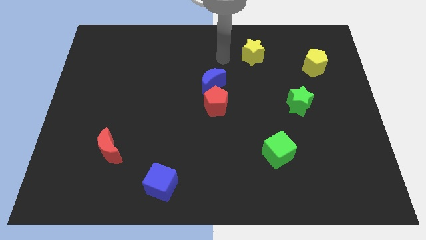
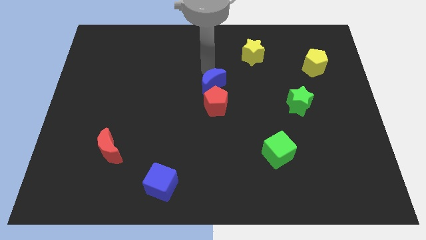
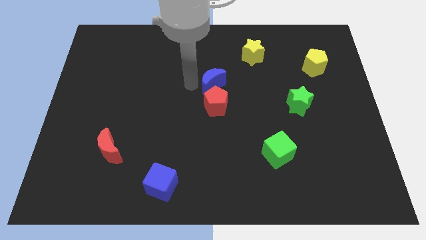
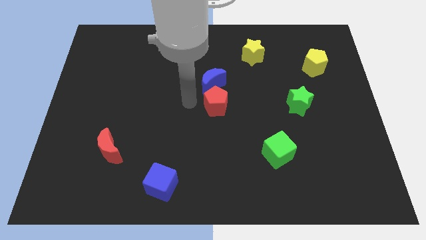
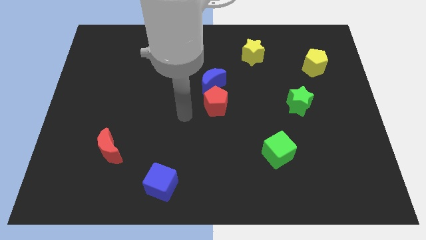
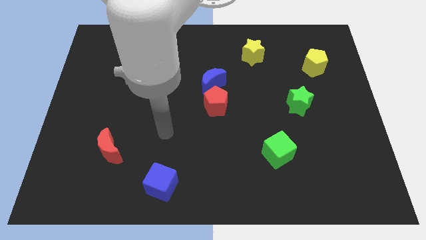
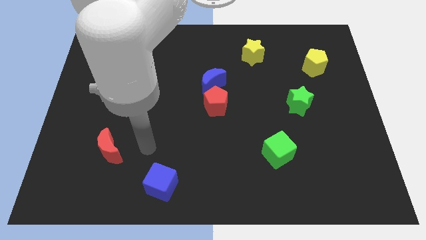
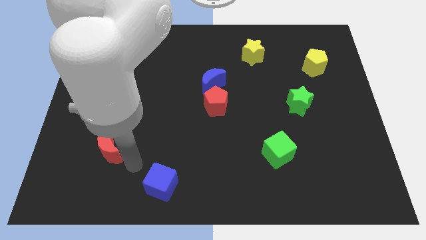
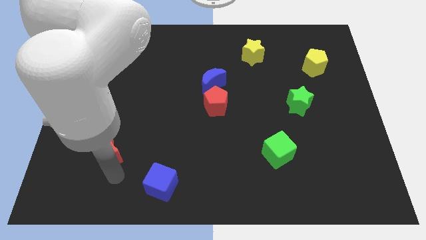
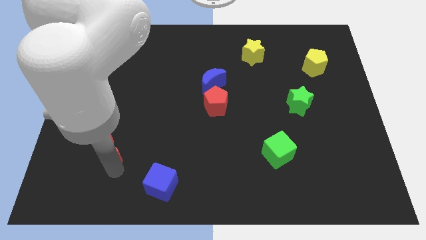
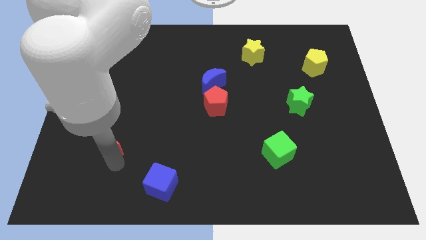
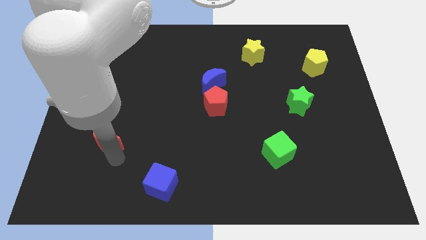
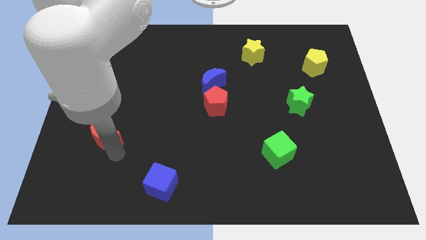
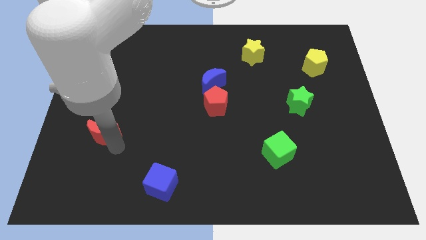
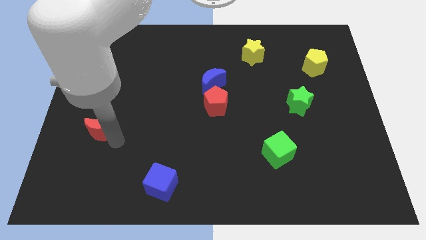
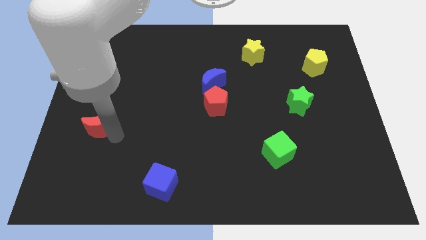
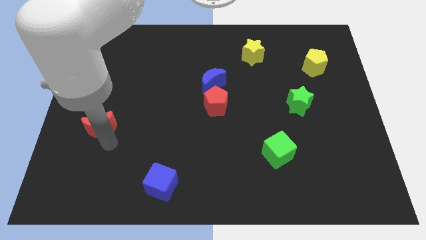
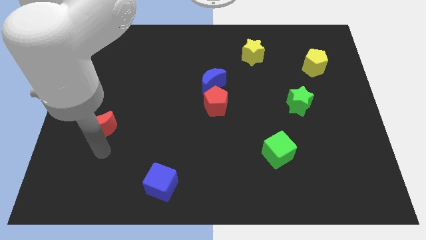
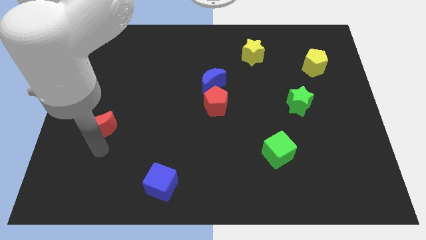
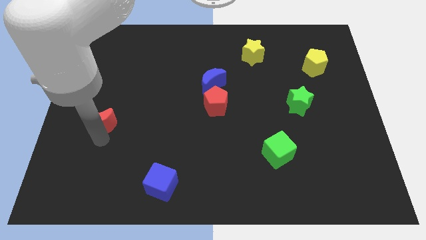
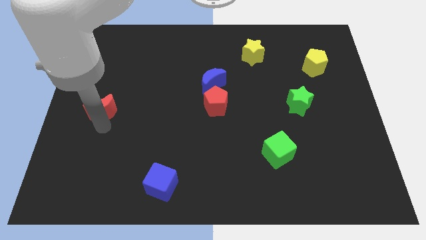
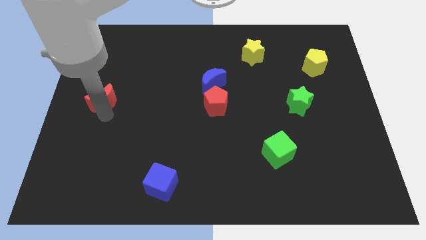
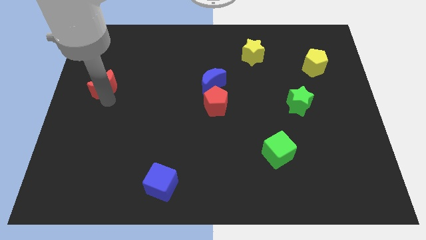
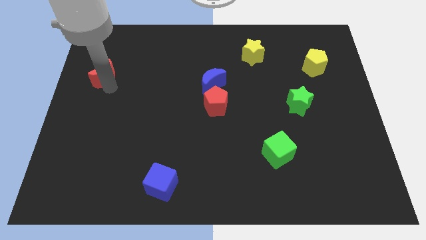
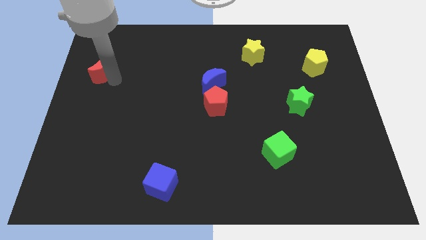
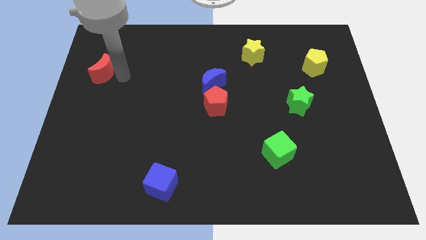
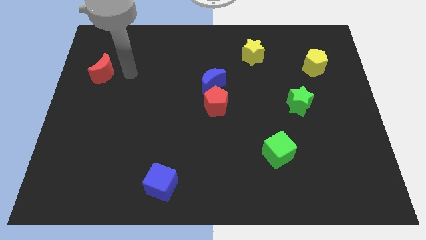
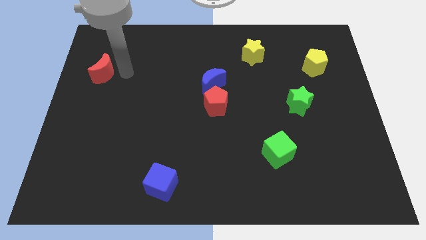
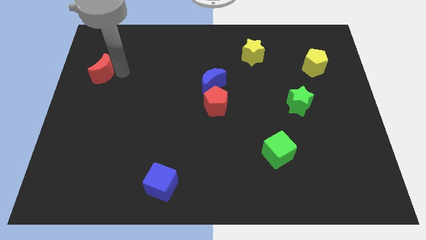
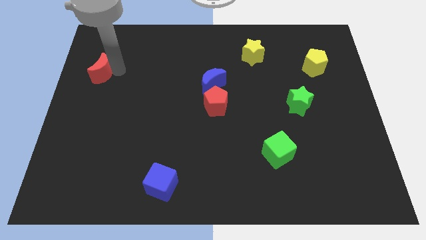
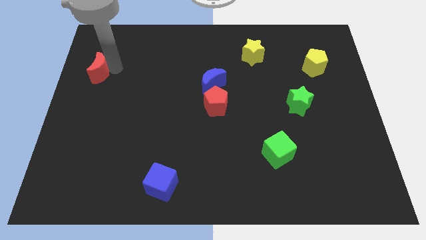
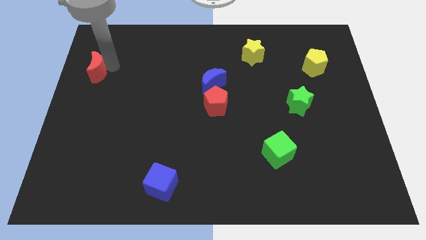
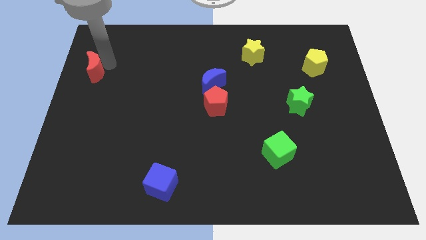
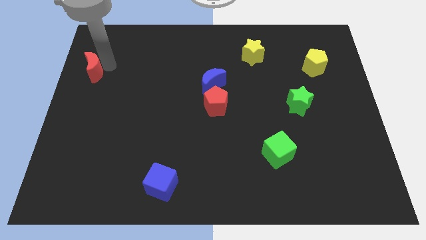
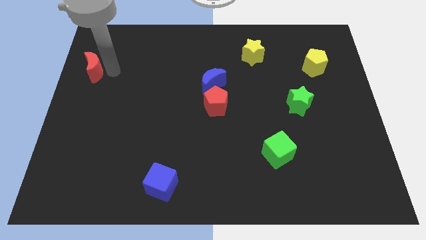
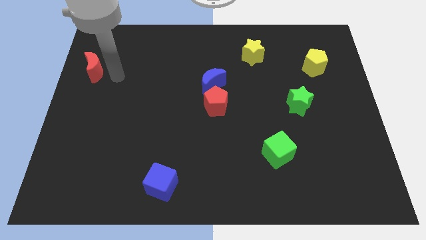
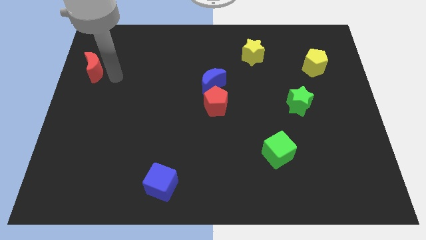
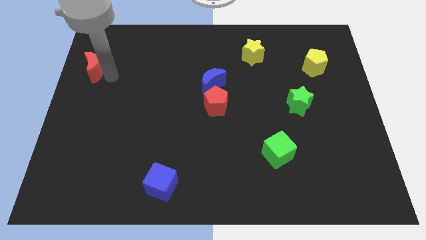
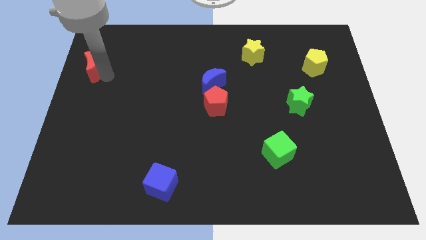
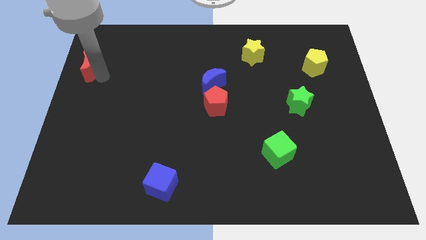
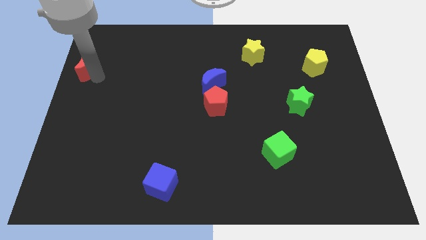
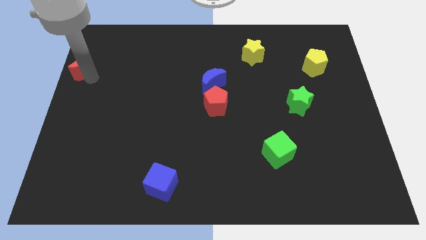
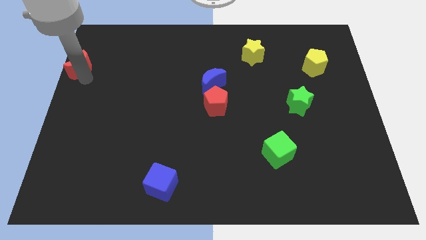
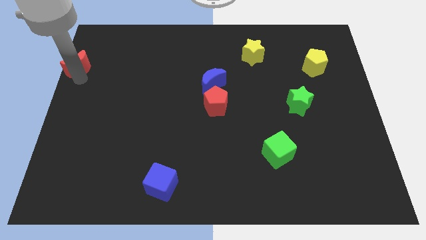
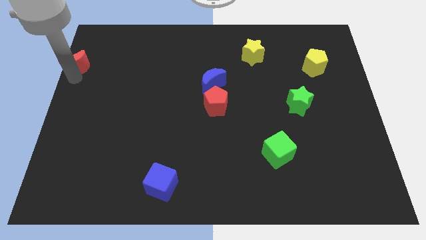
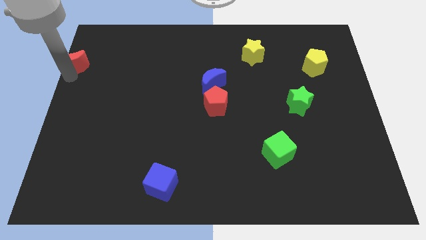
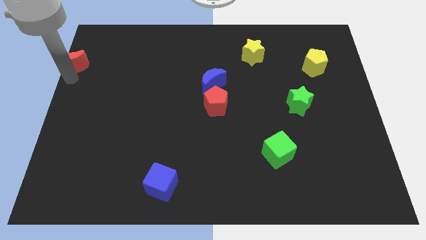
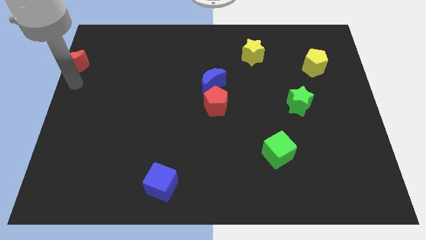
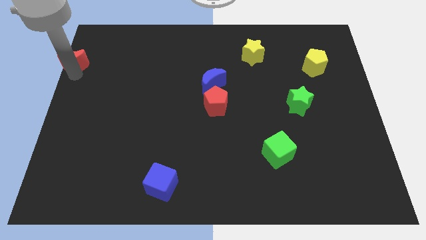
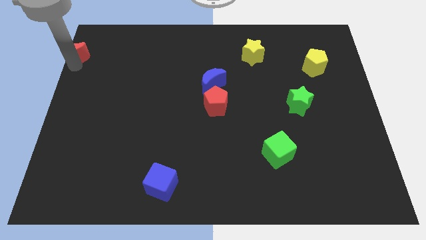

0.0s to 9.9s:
push the red moon to the top left of the board

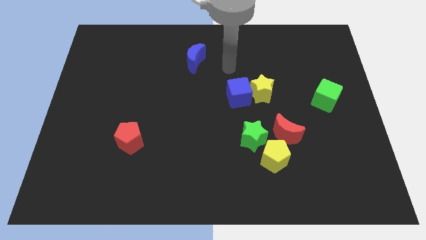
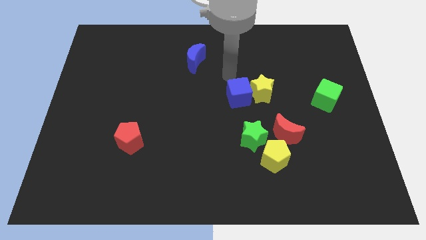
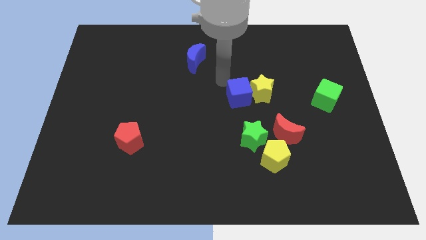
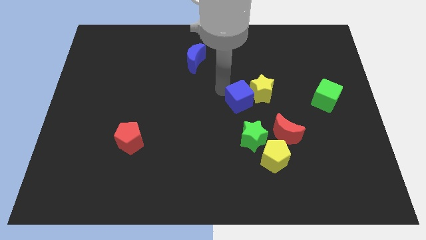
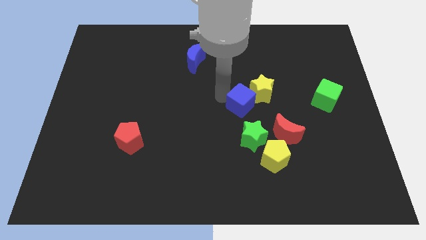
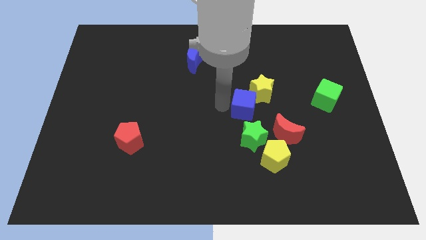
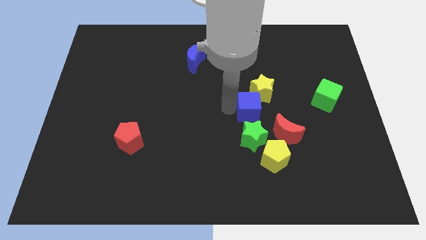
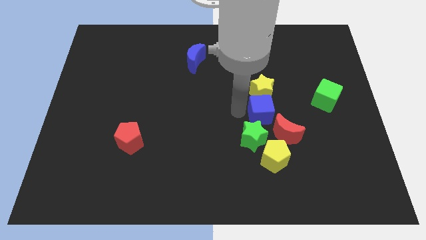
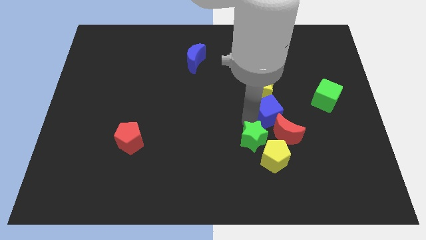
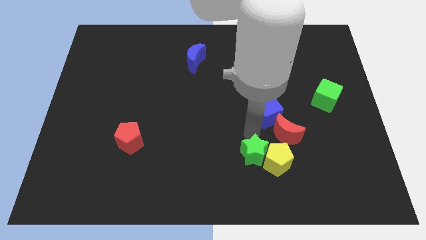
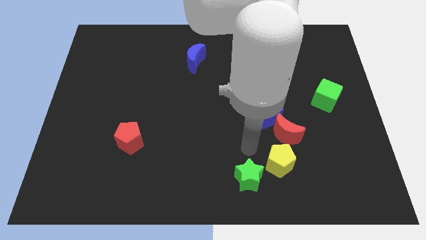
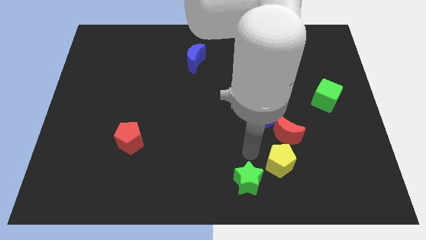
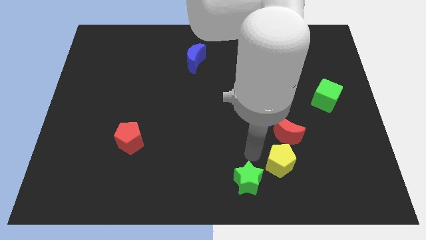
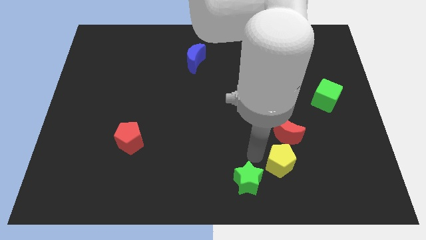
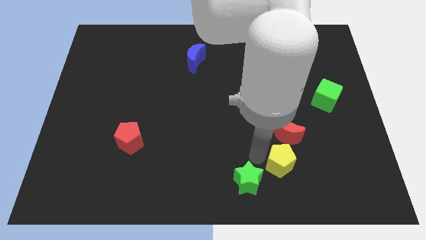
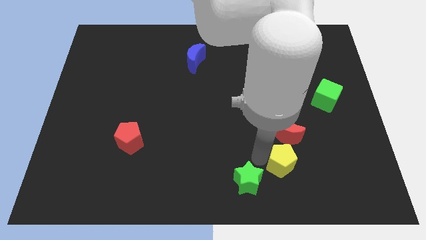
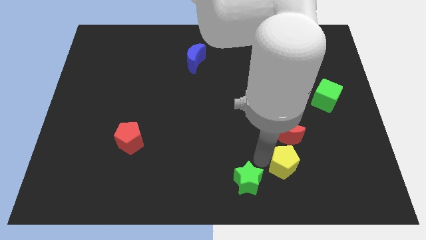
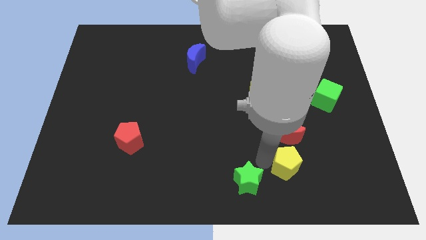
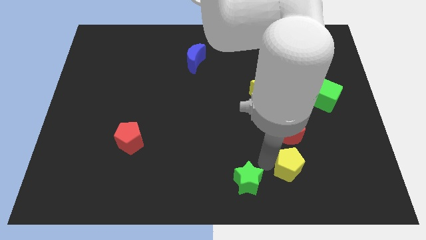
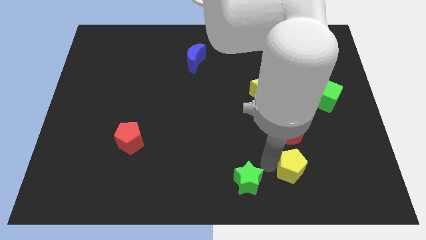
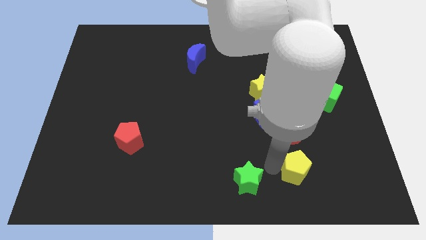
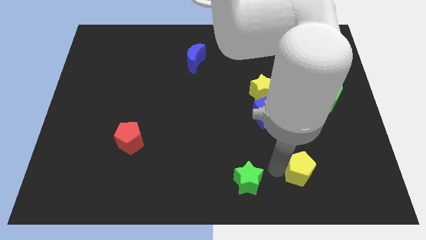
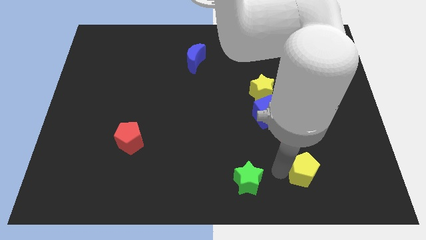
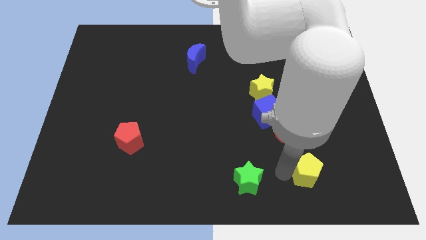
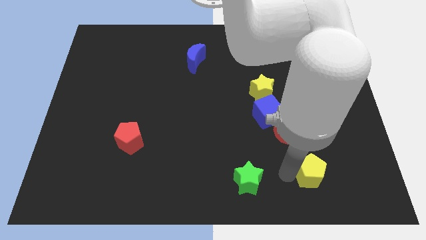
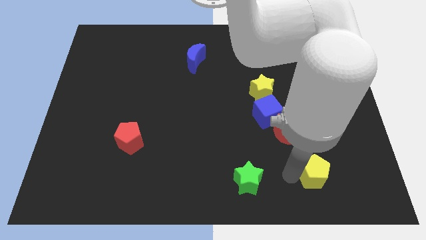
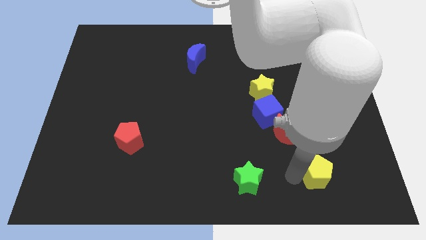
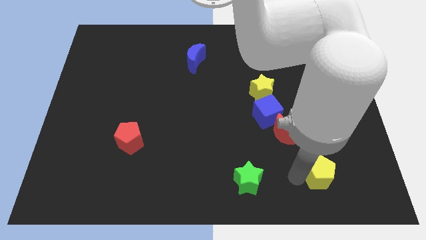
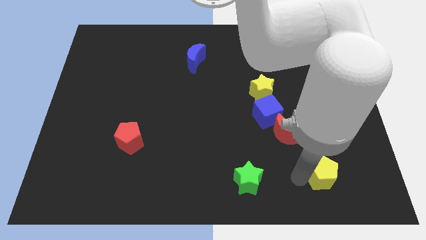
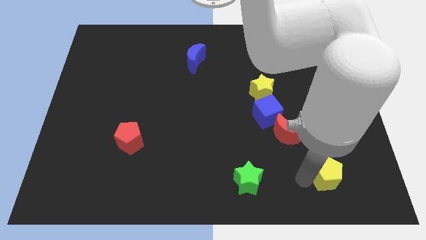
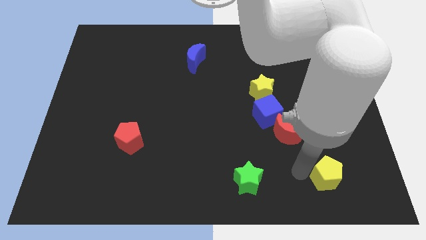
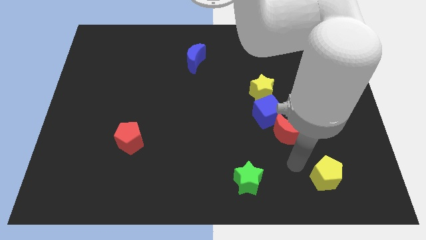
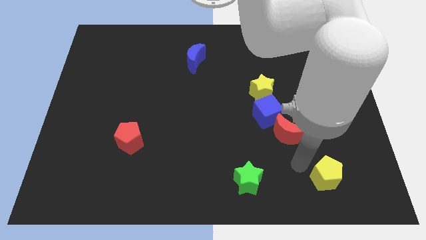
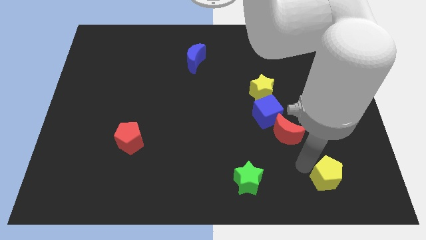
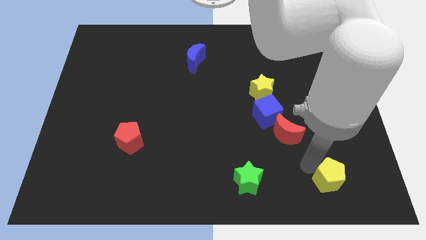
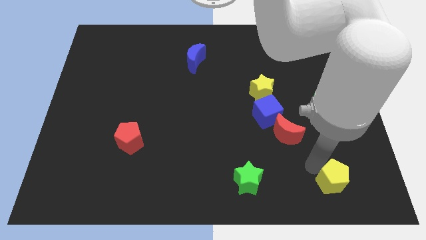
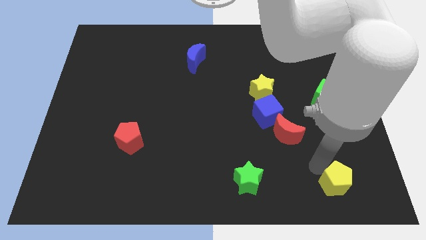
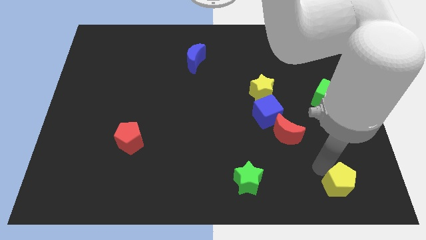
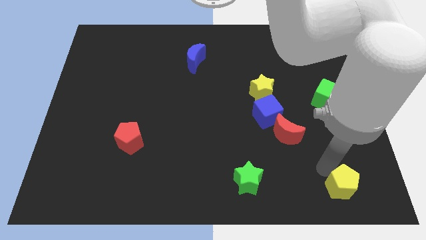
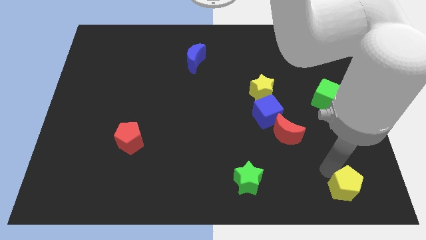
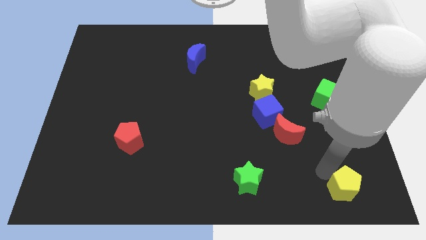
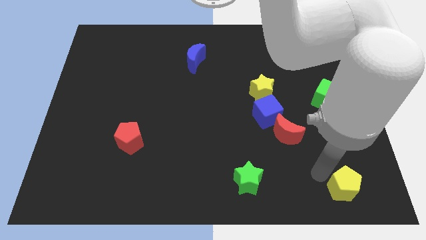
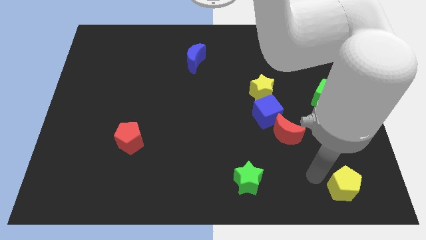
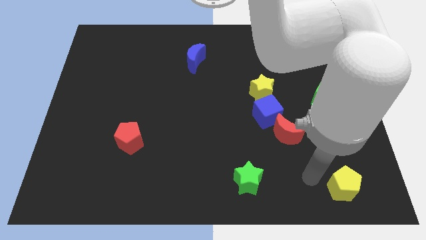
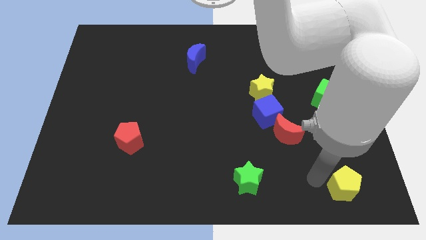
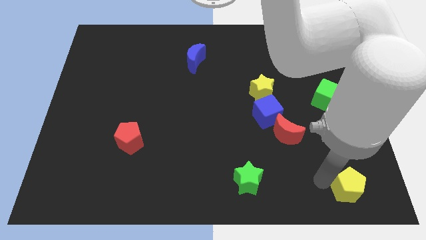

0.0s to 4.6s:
slide the yellow pentagon to the bottom right
